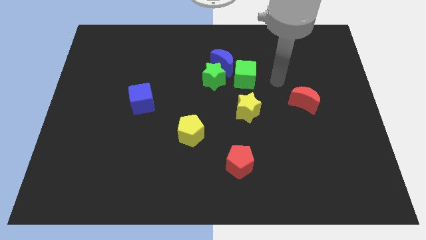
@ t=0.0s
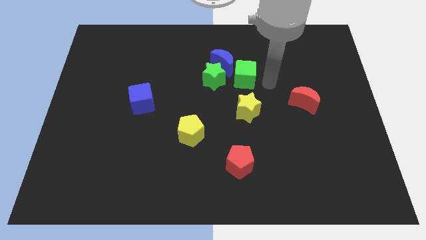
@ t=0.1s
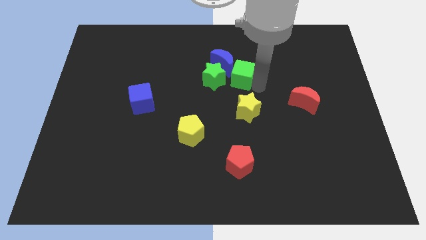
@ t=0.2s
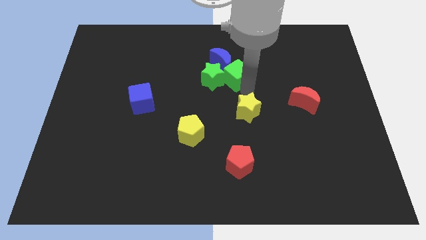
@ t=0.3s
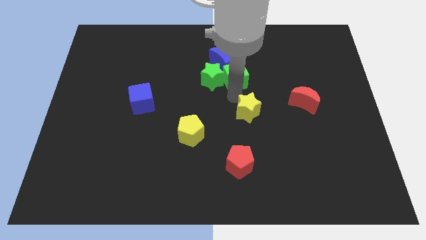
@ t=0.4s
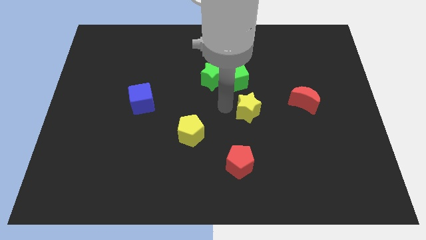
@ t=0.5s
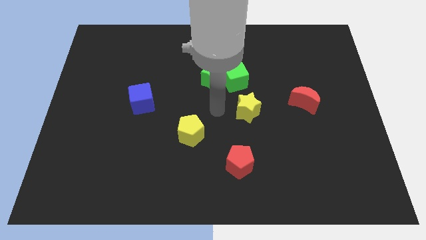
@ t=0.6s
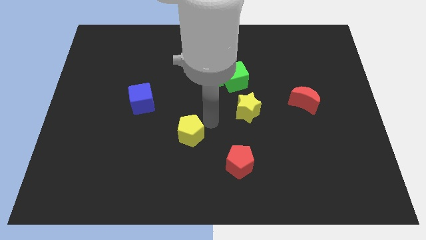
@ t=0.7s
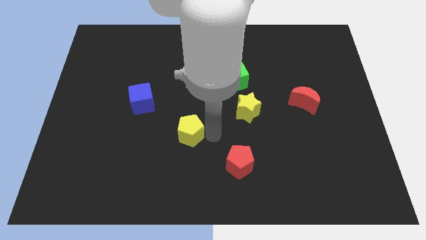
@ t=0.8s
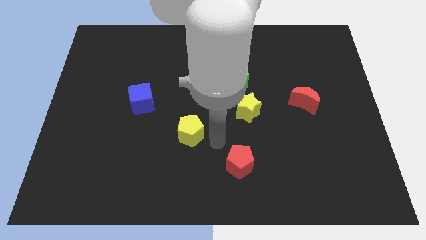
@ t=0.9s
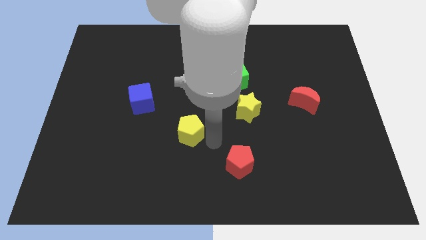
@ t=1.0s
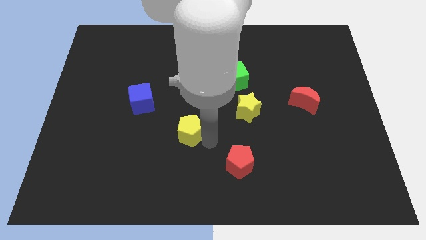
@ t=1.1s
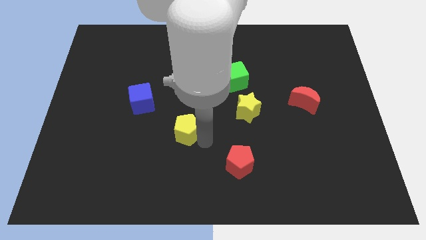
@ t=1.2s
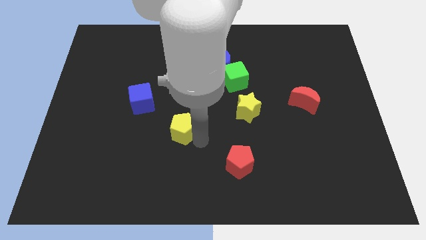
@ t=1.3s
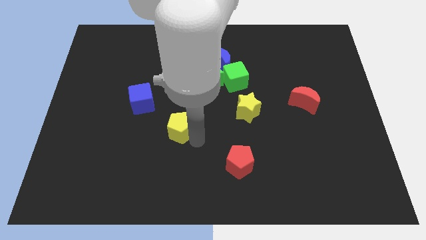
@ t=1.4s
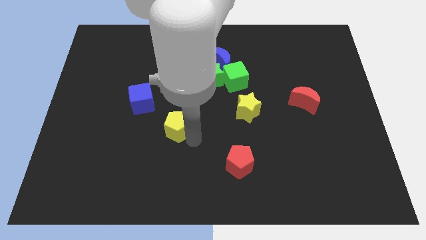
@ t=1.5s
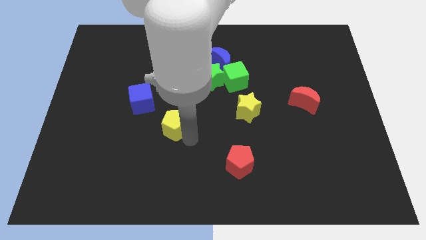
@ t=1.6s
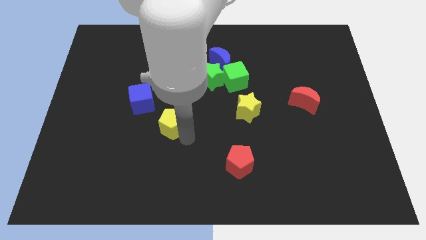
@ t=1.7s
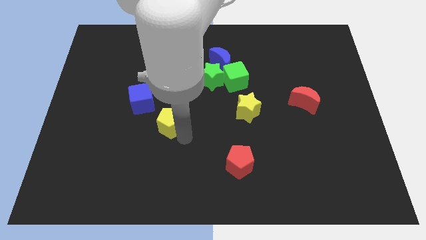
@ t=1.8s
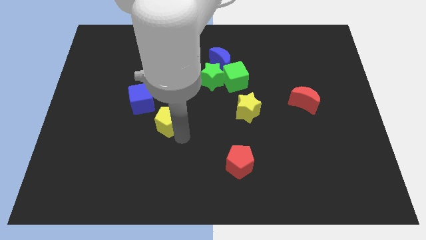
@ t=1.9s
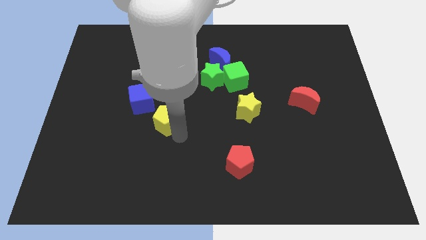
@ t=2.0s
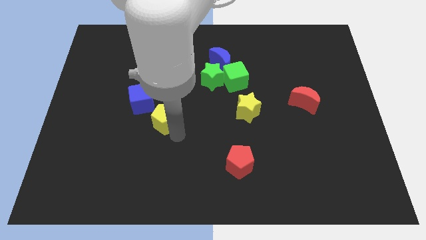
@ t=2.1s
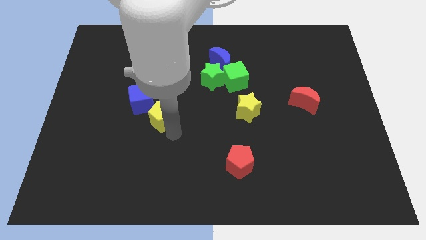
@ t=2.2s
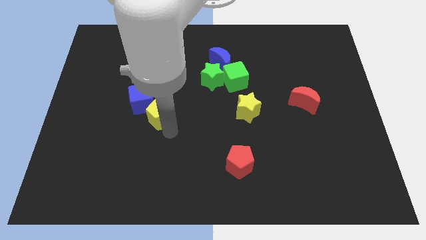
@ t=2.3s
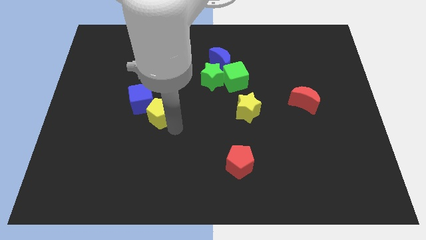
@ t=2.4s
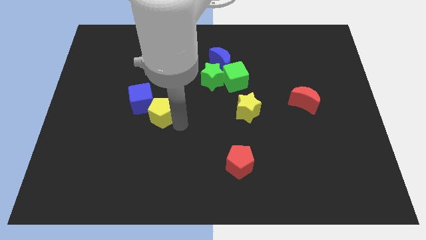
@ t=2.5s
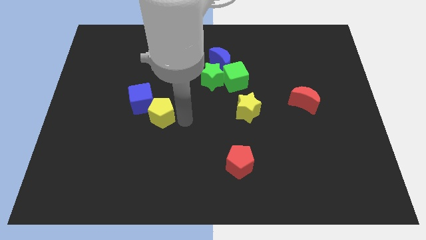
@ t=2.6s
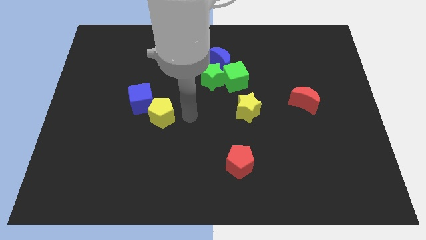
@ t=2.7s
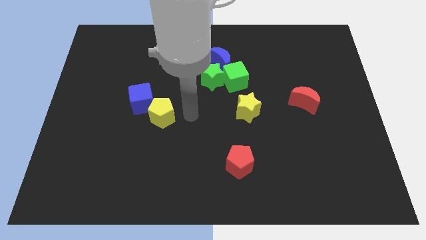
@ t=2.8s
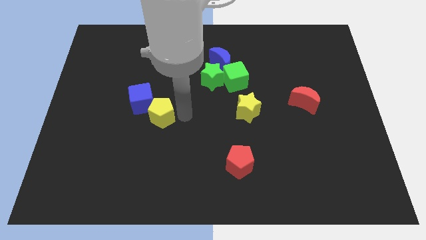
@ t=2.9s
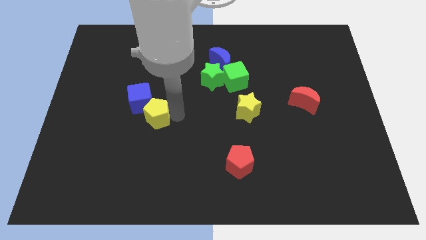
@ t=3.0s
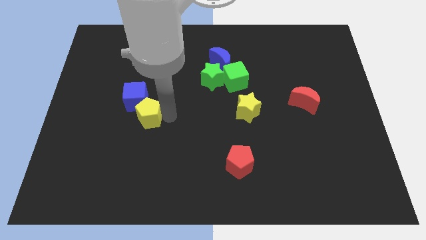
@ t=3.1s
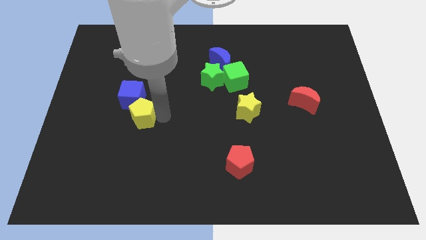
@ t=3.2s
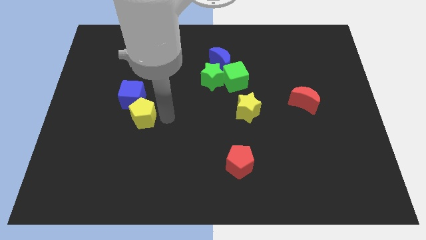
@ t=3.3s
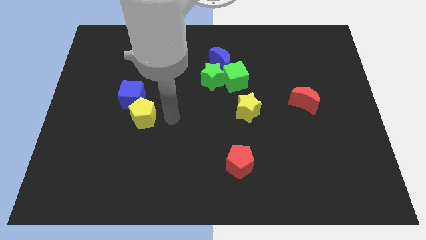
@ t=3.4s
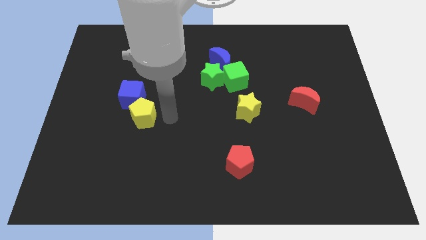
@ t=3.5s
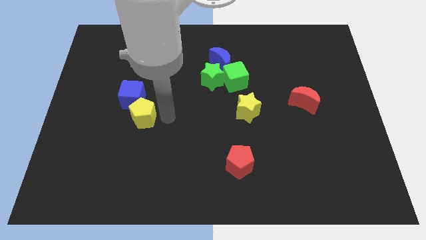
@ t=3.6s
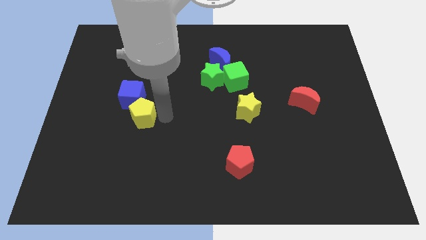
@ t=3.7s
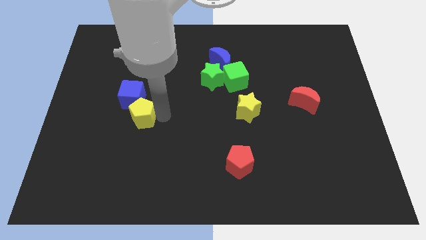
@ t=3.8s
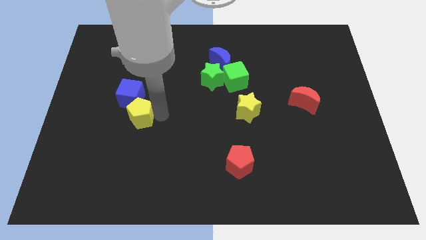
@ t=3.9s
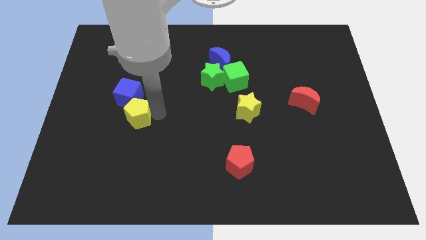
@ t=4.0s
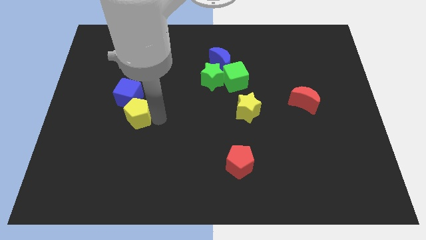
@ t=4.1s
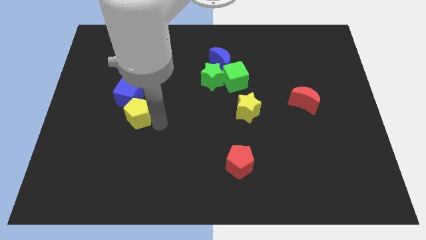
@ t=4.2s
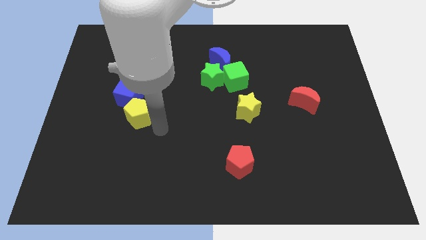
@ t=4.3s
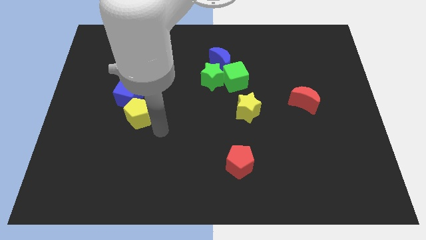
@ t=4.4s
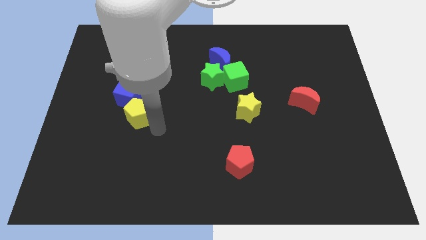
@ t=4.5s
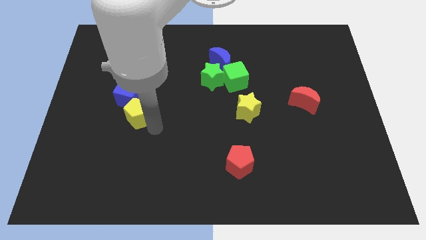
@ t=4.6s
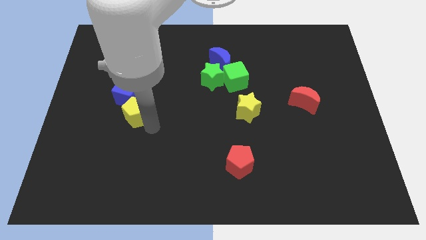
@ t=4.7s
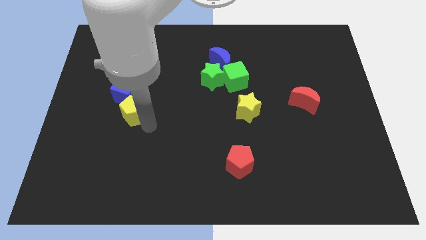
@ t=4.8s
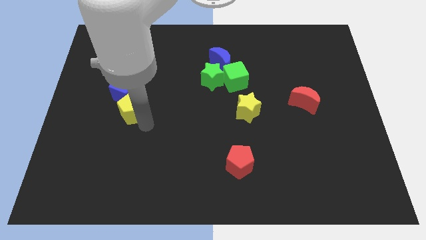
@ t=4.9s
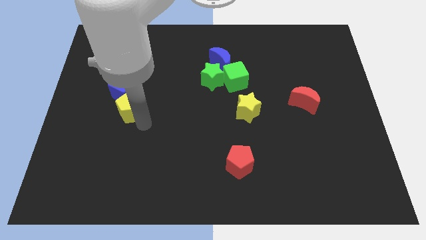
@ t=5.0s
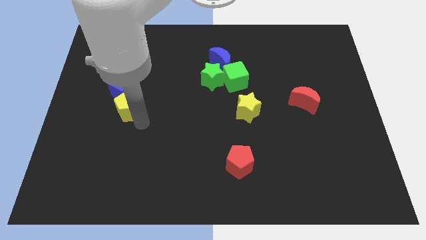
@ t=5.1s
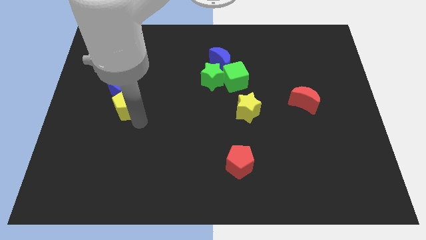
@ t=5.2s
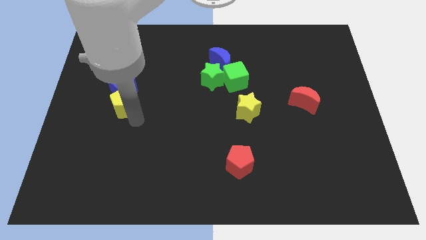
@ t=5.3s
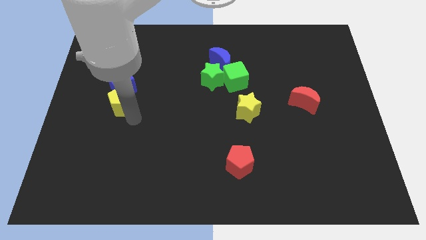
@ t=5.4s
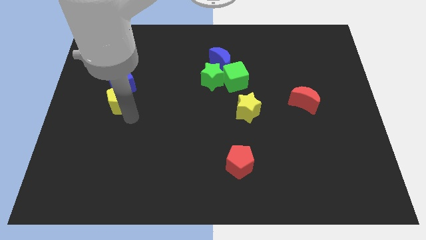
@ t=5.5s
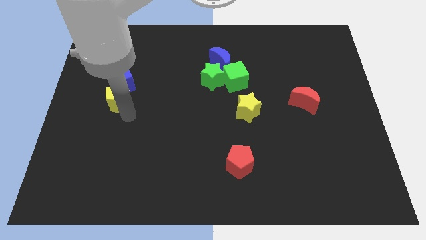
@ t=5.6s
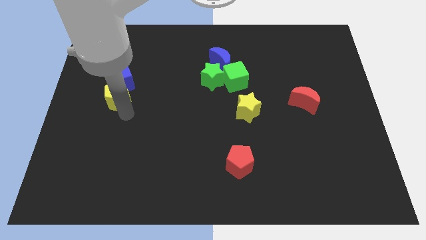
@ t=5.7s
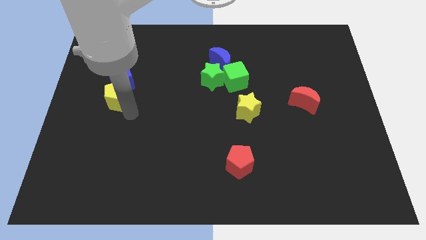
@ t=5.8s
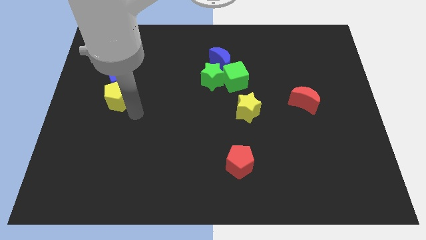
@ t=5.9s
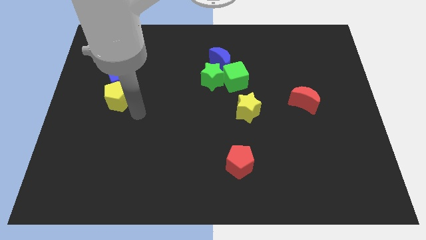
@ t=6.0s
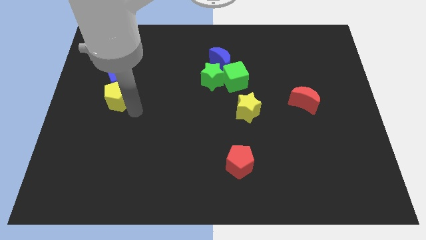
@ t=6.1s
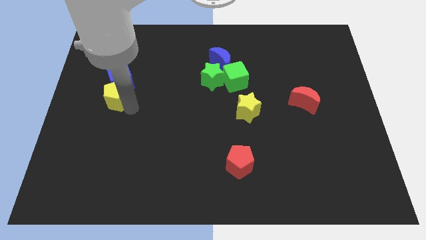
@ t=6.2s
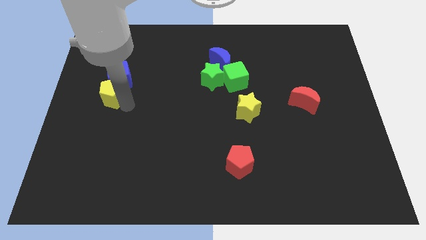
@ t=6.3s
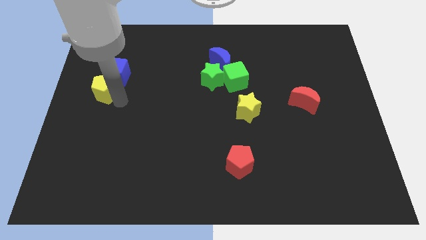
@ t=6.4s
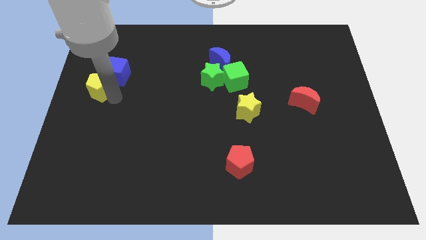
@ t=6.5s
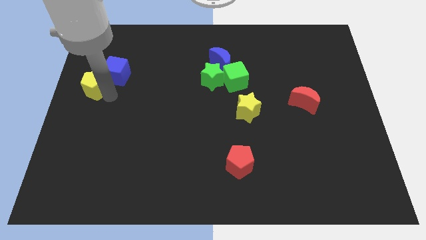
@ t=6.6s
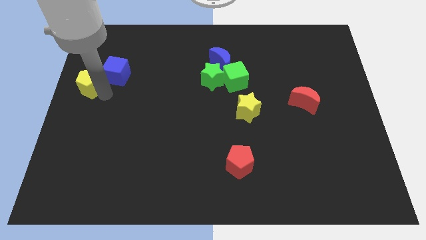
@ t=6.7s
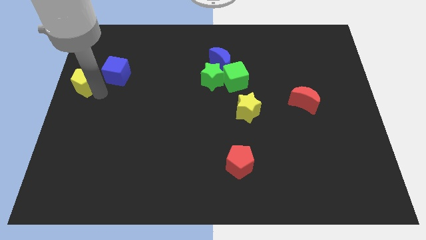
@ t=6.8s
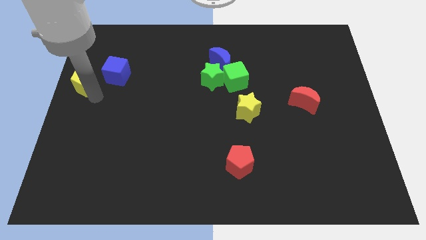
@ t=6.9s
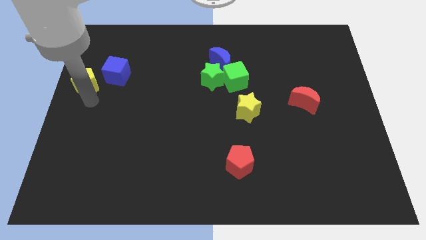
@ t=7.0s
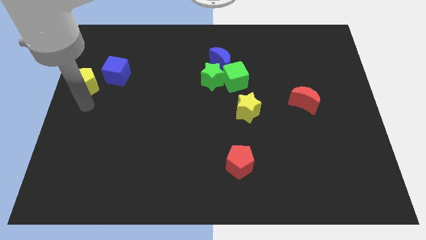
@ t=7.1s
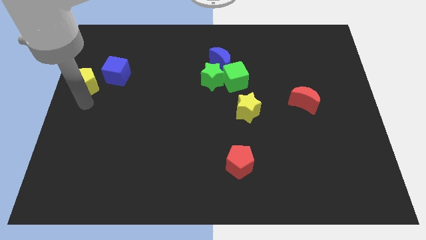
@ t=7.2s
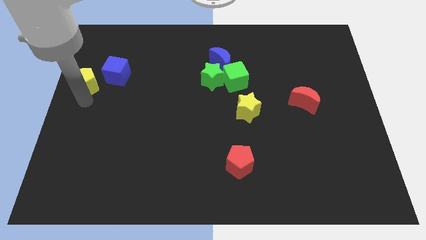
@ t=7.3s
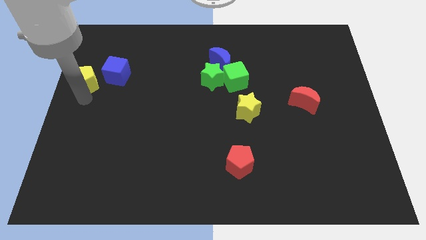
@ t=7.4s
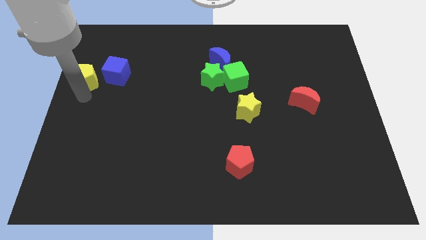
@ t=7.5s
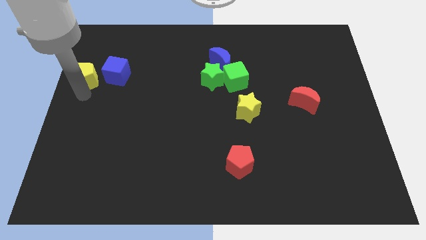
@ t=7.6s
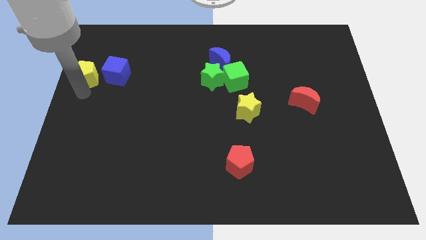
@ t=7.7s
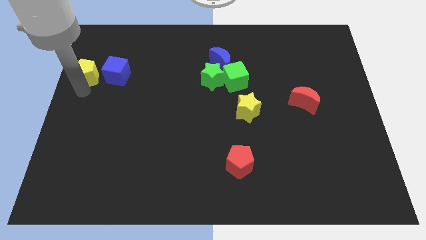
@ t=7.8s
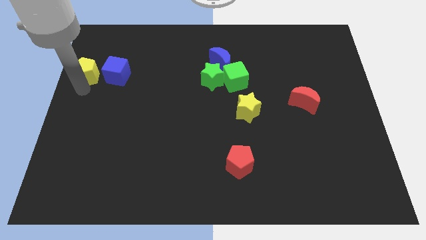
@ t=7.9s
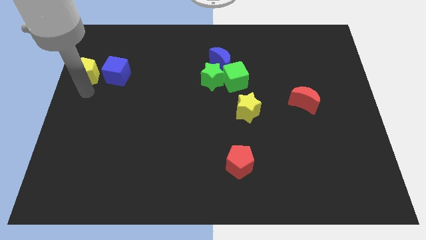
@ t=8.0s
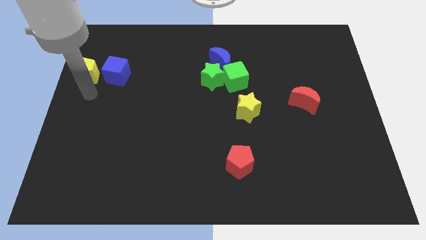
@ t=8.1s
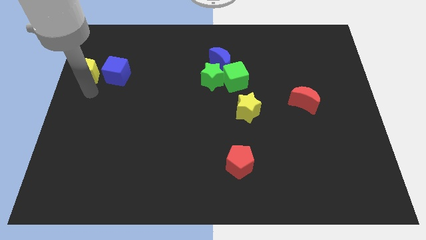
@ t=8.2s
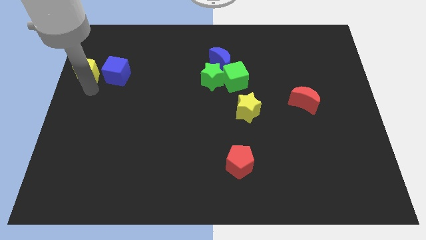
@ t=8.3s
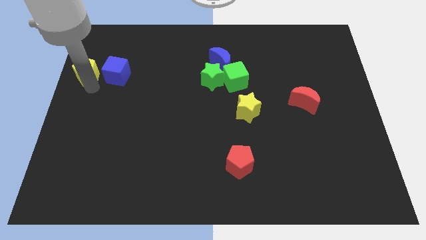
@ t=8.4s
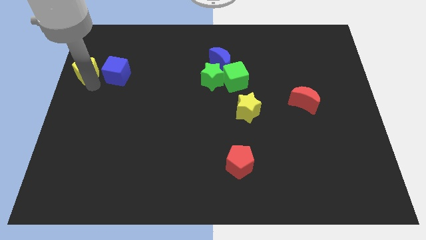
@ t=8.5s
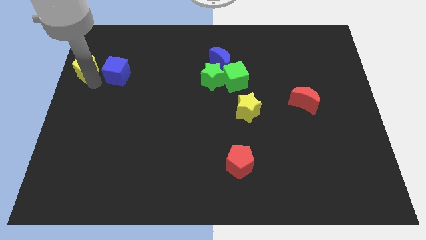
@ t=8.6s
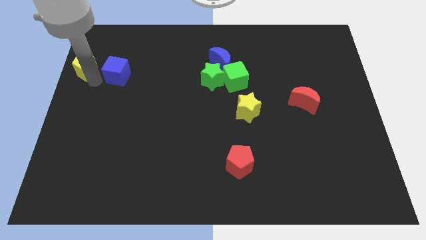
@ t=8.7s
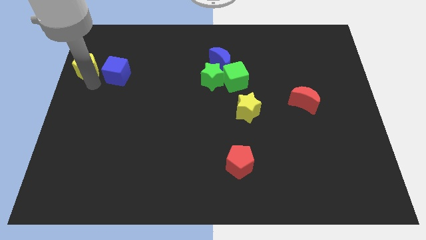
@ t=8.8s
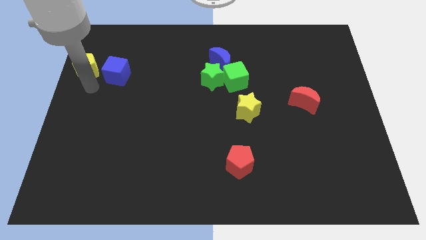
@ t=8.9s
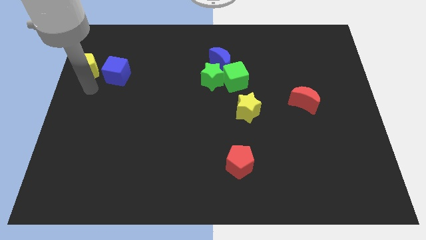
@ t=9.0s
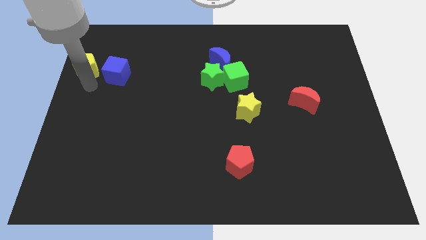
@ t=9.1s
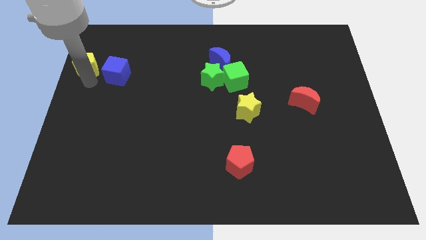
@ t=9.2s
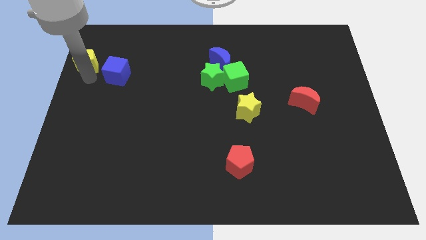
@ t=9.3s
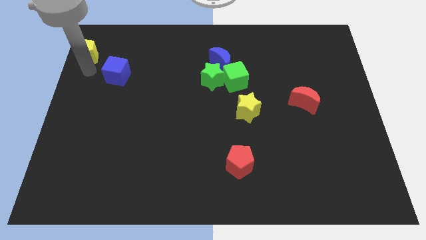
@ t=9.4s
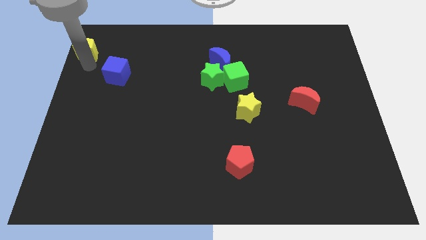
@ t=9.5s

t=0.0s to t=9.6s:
push the yellow pentagon to the top left
